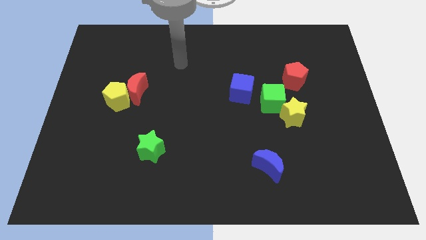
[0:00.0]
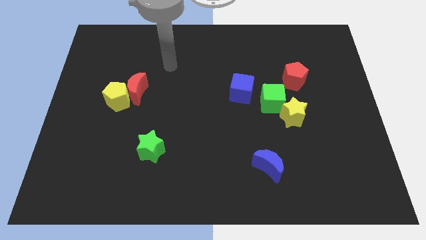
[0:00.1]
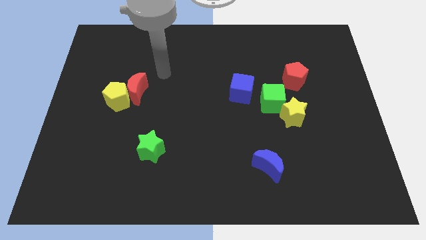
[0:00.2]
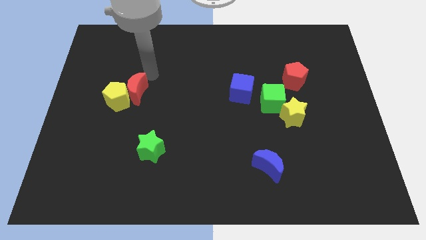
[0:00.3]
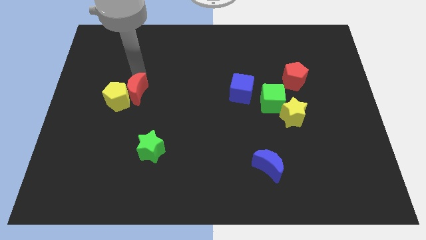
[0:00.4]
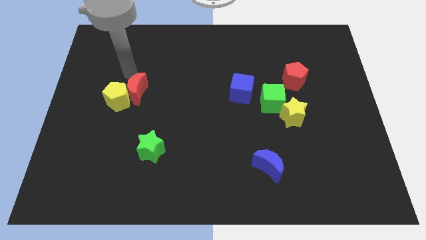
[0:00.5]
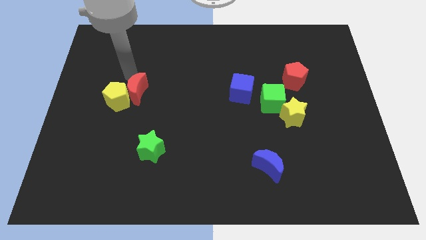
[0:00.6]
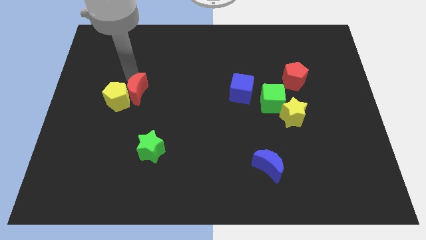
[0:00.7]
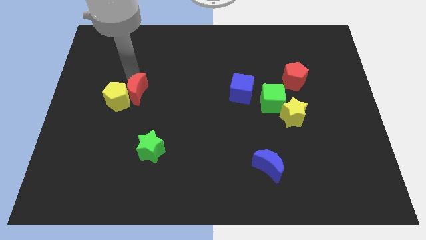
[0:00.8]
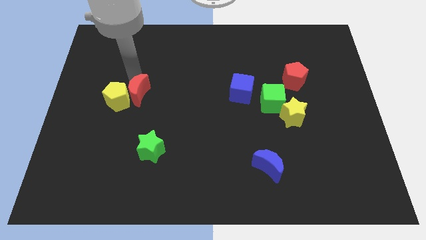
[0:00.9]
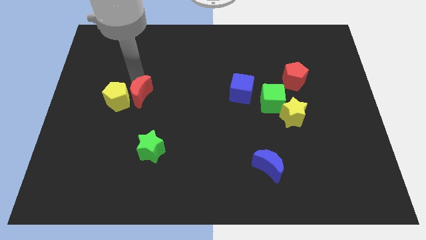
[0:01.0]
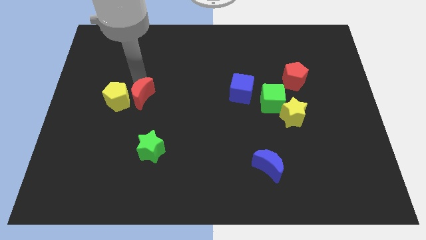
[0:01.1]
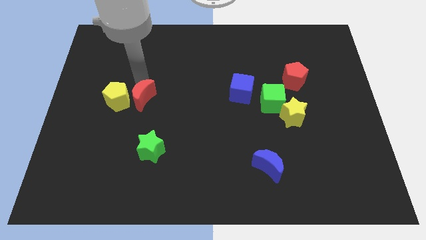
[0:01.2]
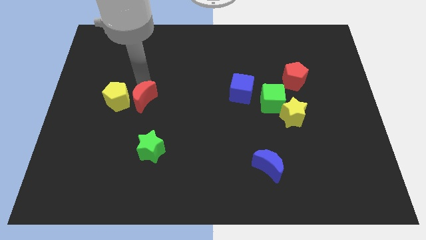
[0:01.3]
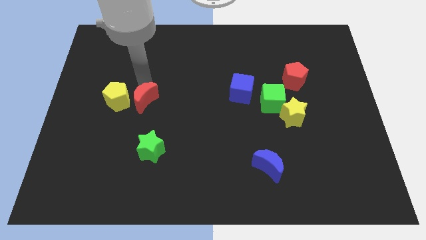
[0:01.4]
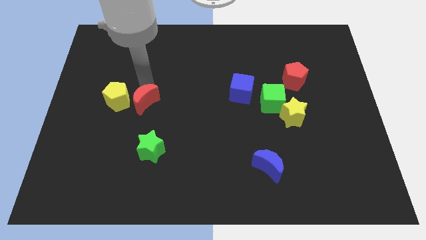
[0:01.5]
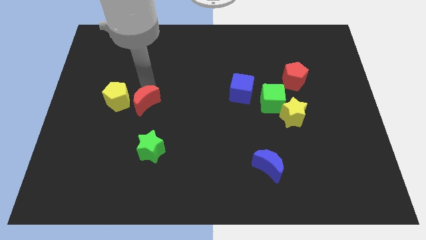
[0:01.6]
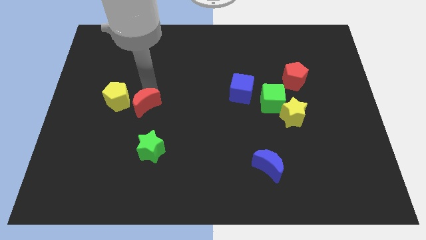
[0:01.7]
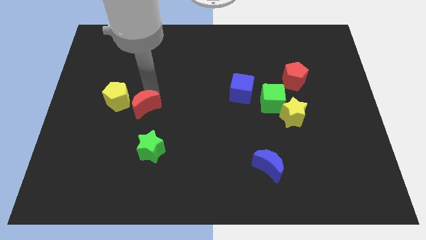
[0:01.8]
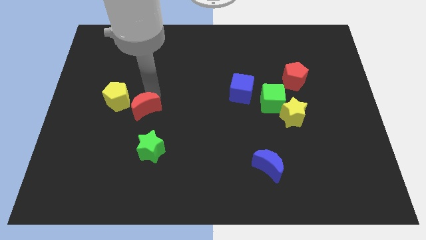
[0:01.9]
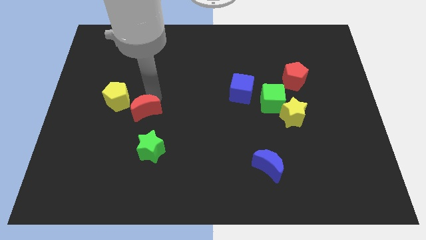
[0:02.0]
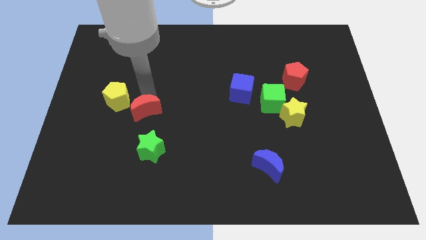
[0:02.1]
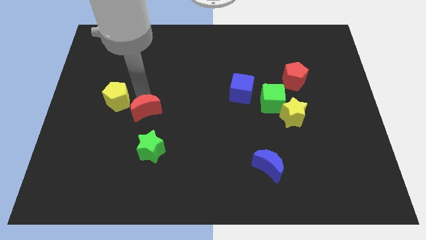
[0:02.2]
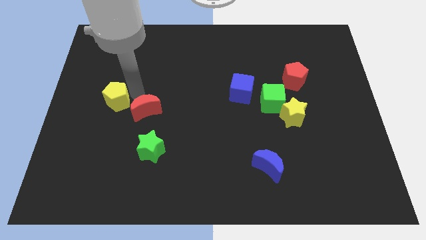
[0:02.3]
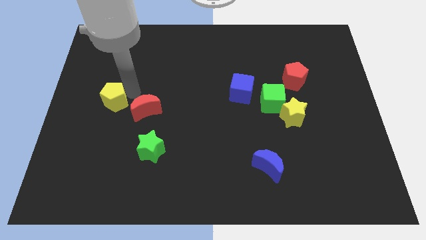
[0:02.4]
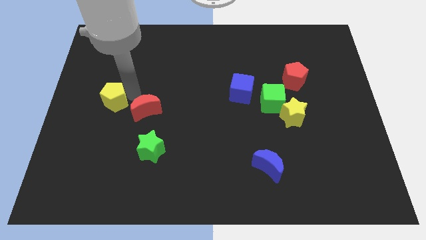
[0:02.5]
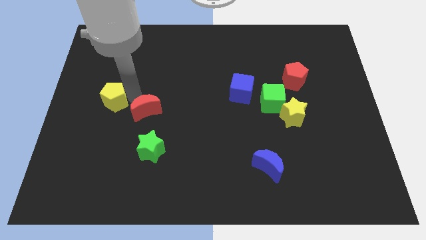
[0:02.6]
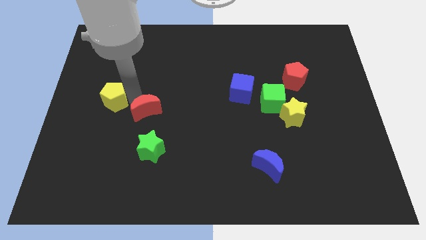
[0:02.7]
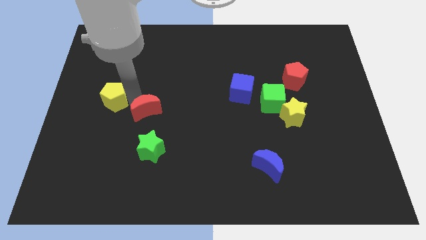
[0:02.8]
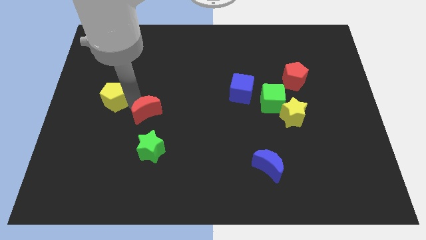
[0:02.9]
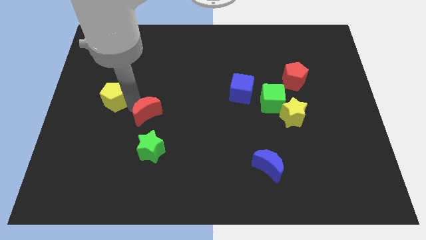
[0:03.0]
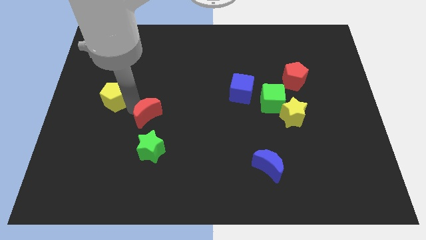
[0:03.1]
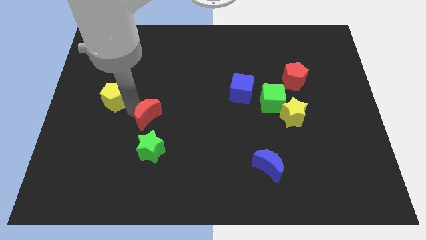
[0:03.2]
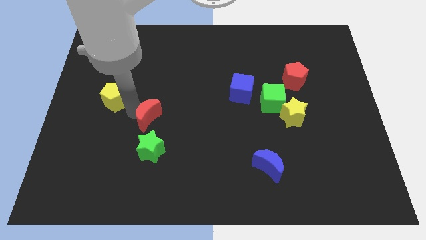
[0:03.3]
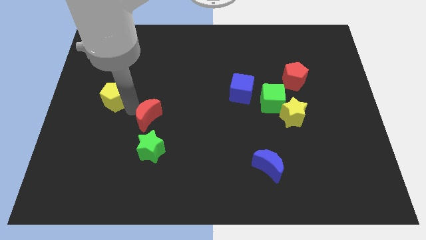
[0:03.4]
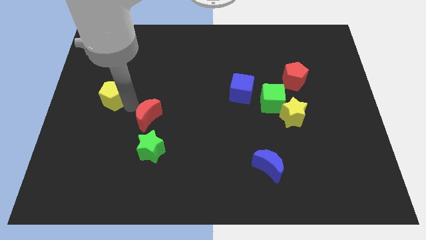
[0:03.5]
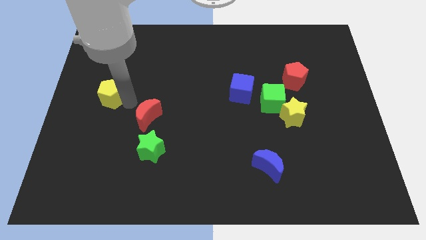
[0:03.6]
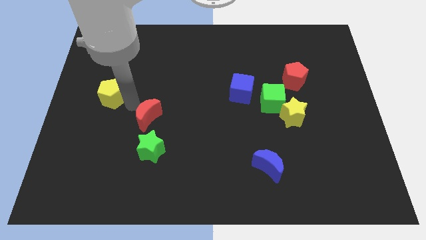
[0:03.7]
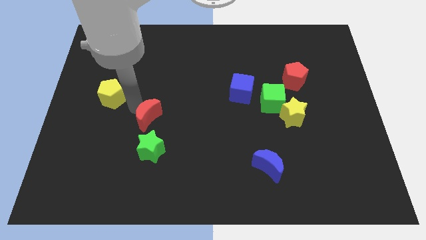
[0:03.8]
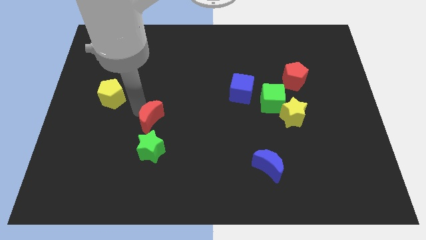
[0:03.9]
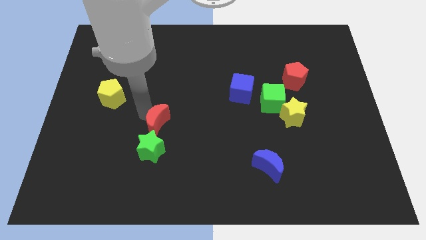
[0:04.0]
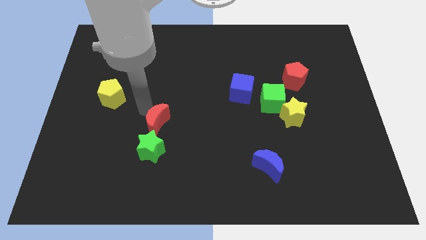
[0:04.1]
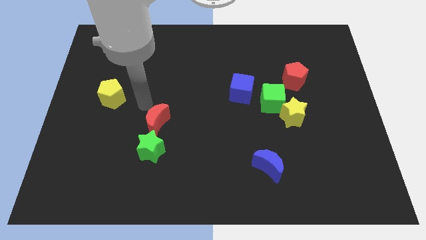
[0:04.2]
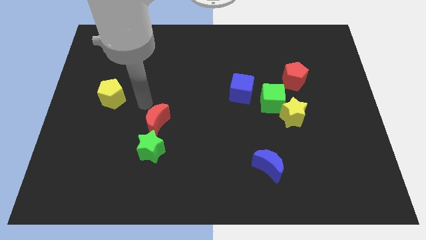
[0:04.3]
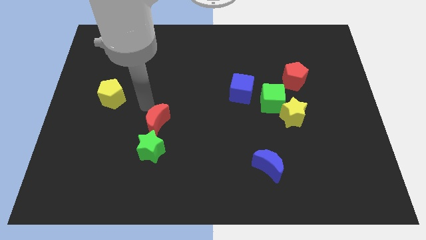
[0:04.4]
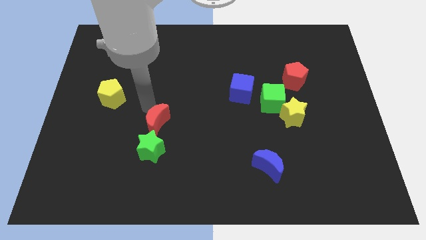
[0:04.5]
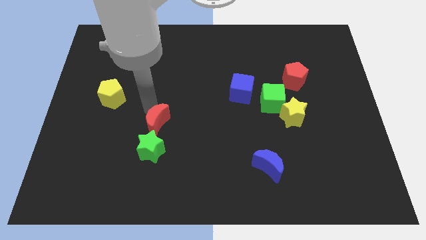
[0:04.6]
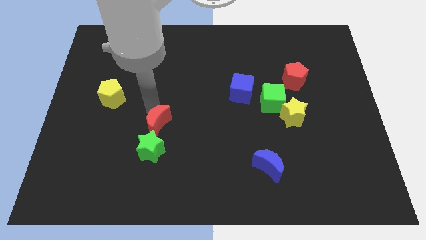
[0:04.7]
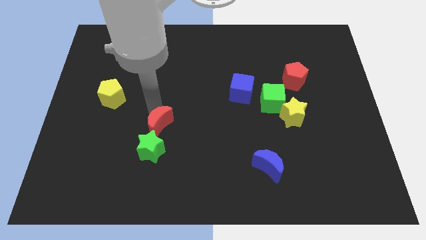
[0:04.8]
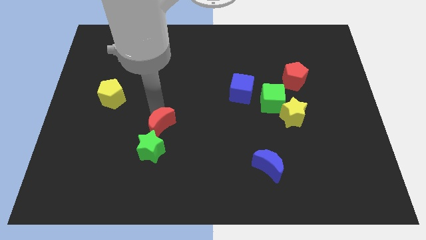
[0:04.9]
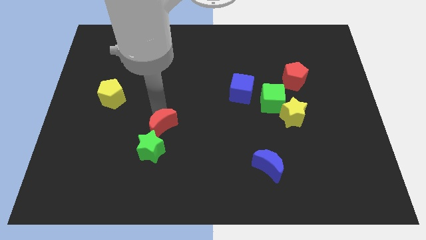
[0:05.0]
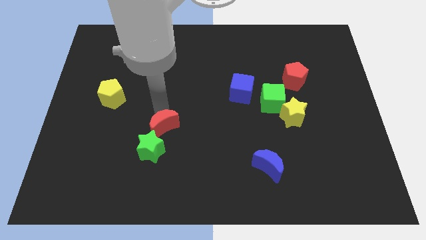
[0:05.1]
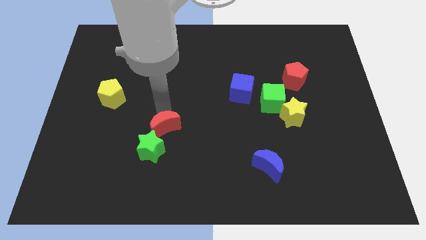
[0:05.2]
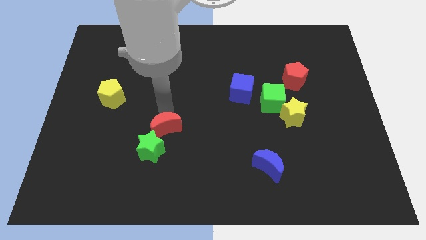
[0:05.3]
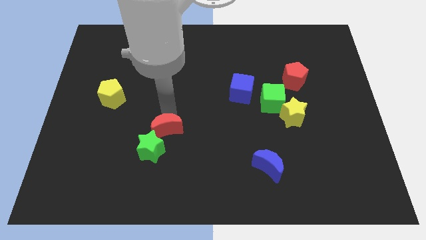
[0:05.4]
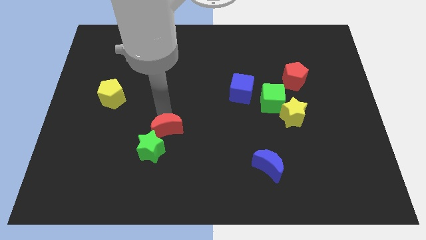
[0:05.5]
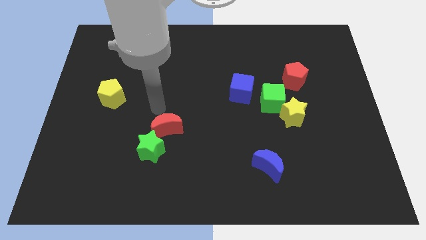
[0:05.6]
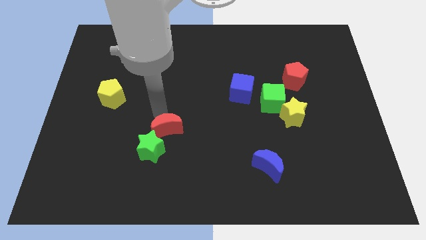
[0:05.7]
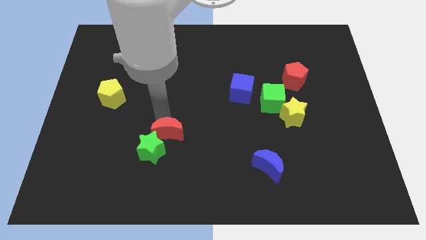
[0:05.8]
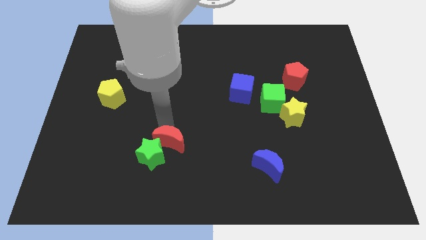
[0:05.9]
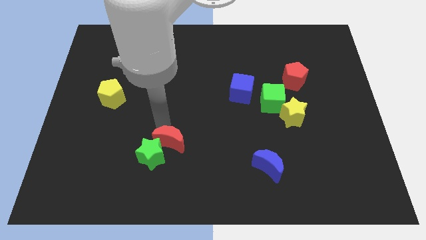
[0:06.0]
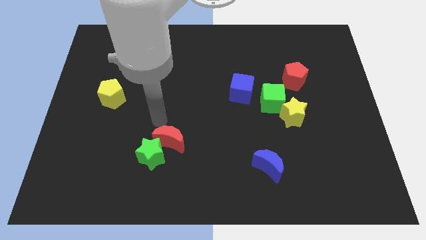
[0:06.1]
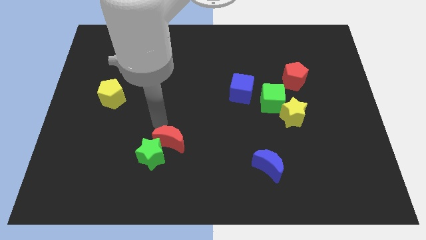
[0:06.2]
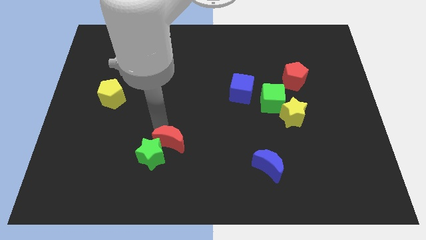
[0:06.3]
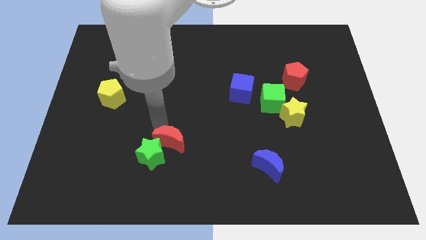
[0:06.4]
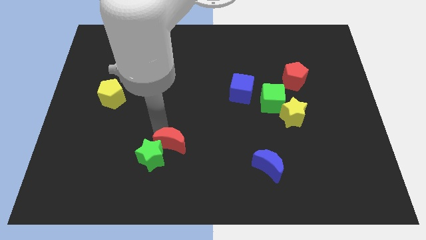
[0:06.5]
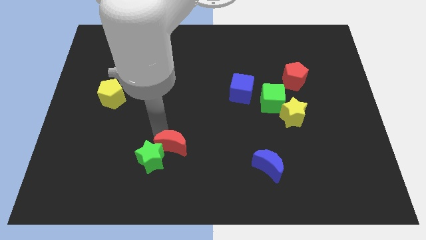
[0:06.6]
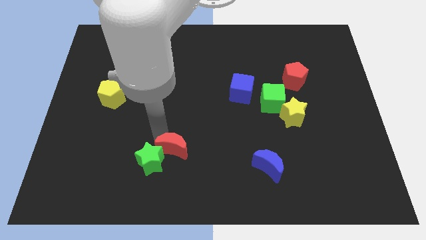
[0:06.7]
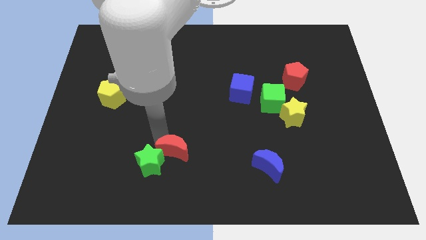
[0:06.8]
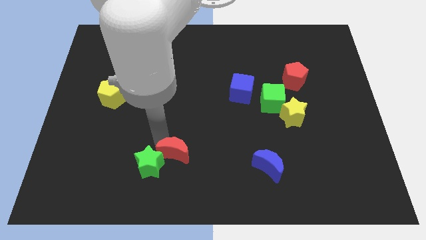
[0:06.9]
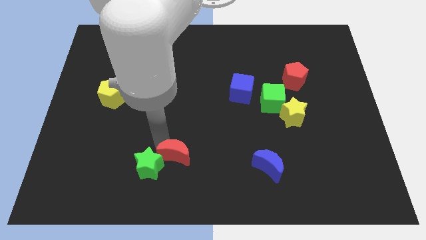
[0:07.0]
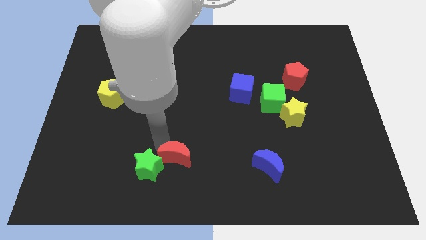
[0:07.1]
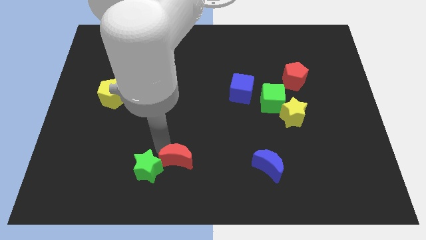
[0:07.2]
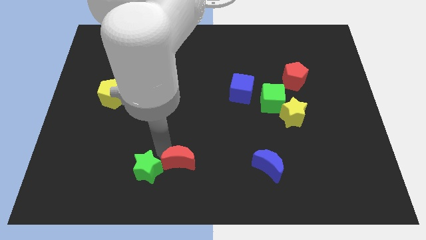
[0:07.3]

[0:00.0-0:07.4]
move the red moon to the bottom side
